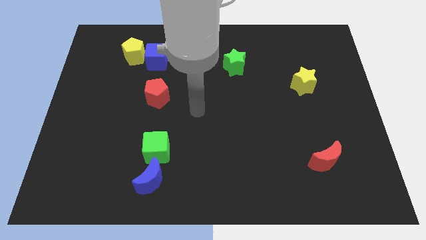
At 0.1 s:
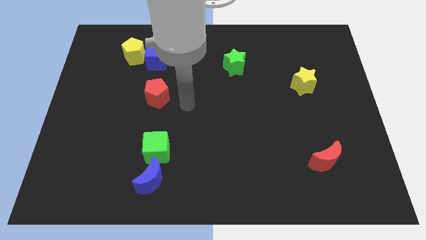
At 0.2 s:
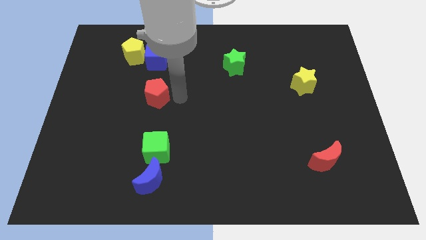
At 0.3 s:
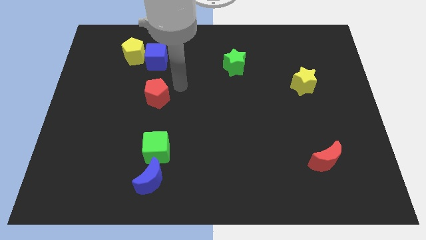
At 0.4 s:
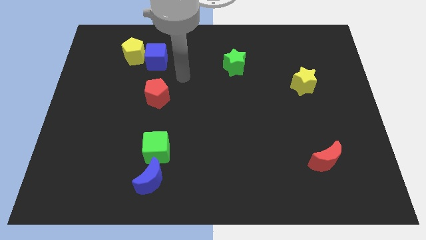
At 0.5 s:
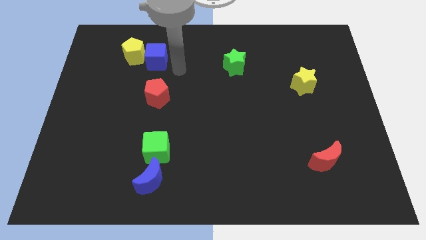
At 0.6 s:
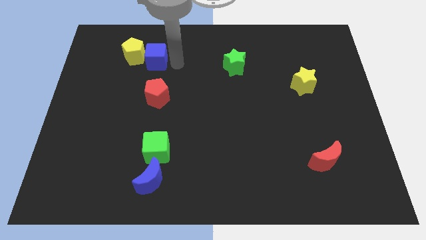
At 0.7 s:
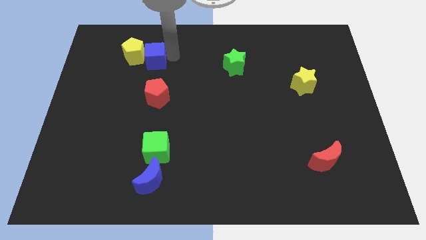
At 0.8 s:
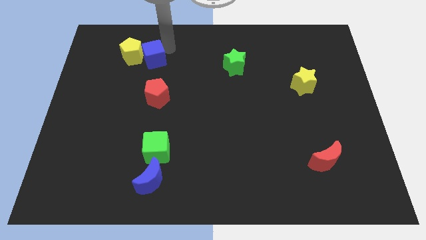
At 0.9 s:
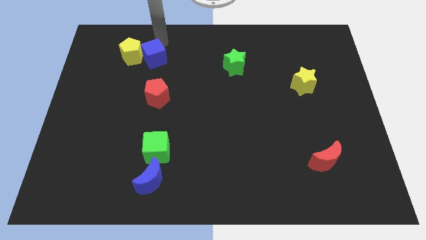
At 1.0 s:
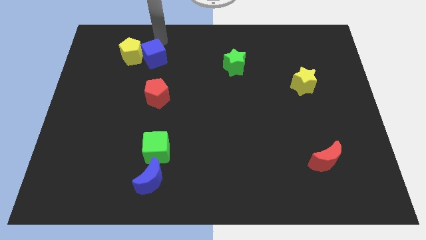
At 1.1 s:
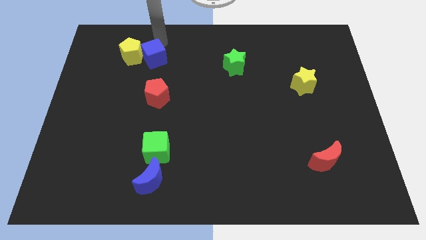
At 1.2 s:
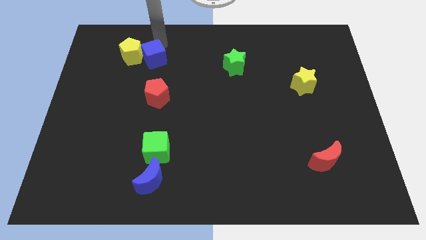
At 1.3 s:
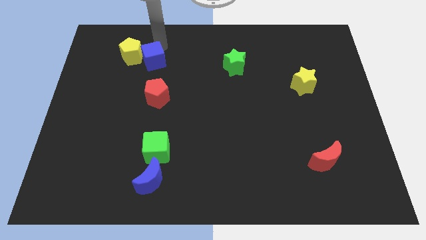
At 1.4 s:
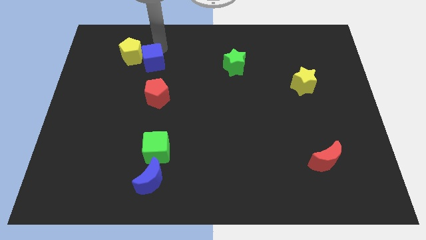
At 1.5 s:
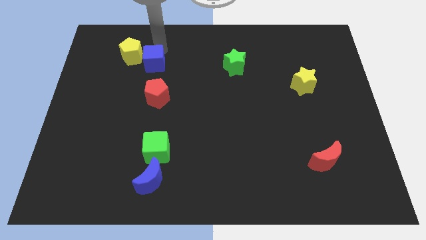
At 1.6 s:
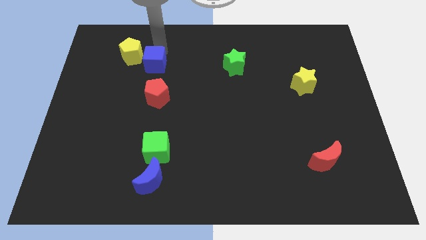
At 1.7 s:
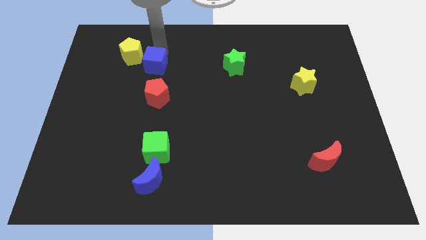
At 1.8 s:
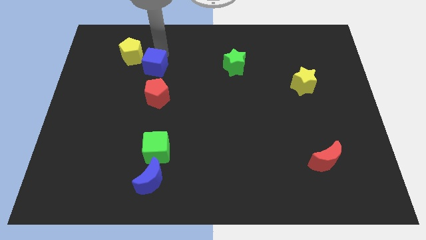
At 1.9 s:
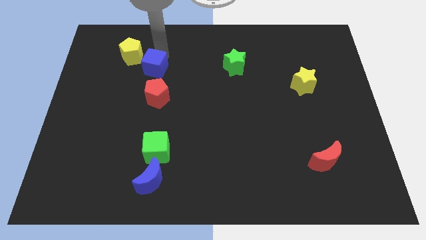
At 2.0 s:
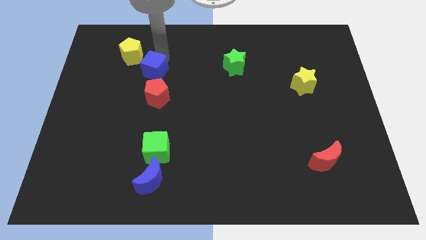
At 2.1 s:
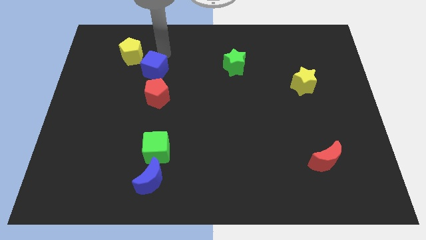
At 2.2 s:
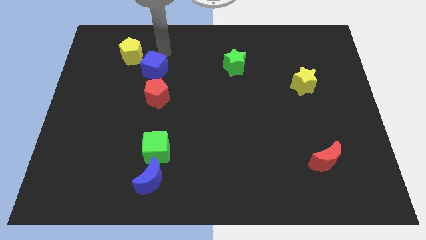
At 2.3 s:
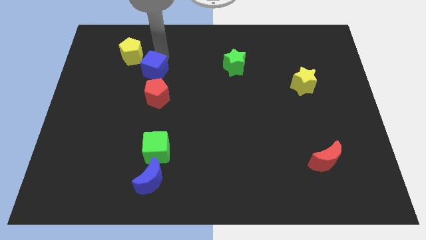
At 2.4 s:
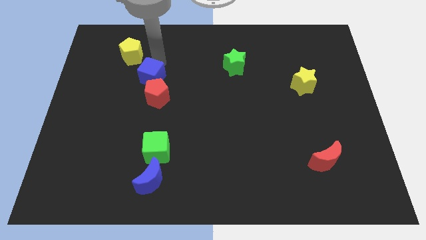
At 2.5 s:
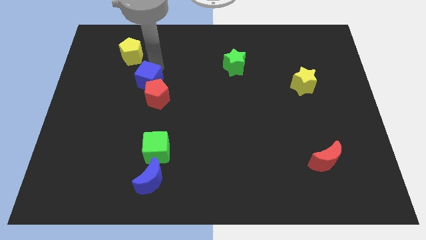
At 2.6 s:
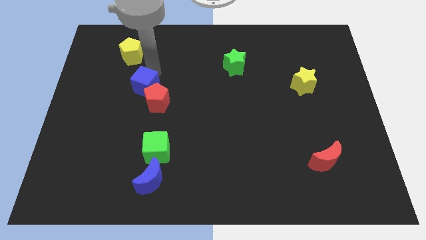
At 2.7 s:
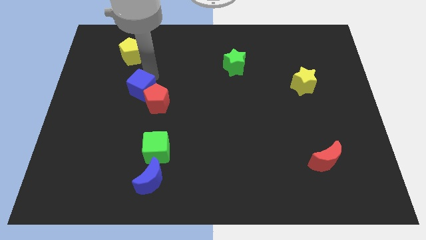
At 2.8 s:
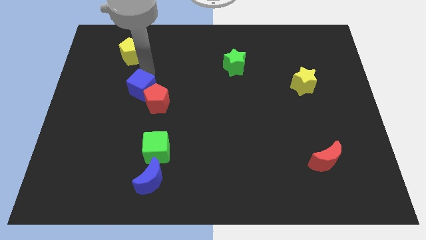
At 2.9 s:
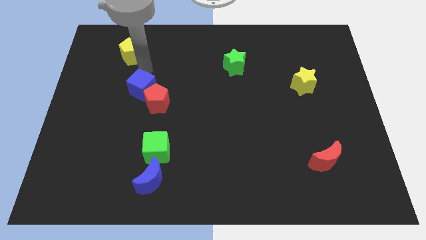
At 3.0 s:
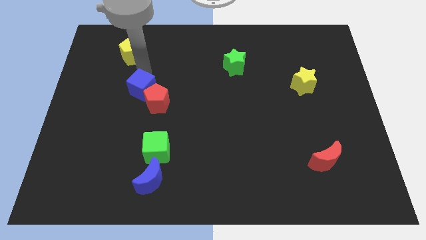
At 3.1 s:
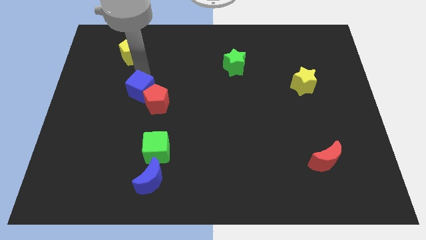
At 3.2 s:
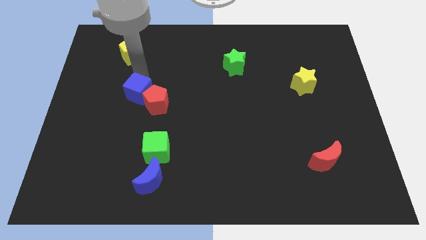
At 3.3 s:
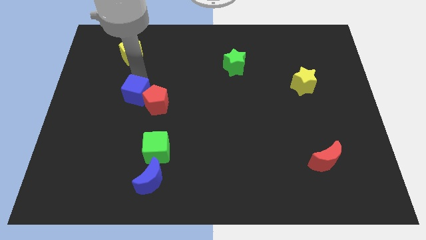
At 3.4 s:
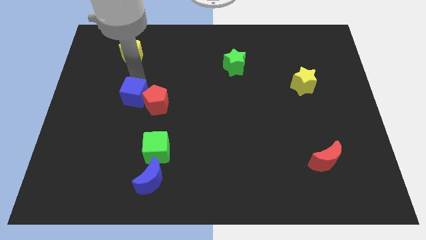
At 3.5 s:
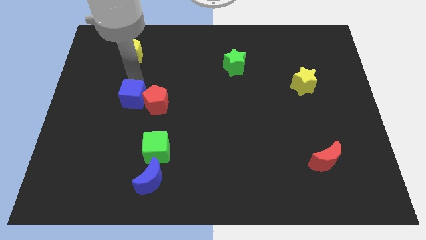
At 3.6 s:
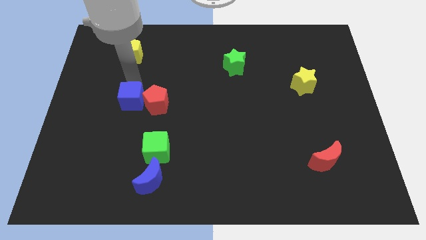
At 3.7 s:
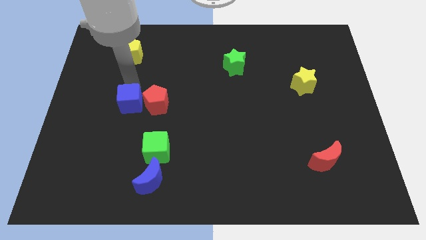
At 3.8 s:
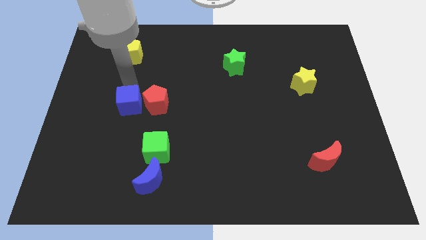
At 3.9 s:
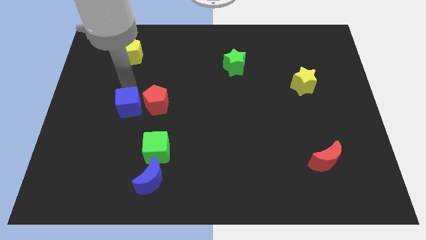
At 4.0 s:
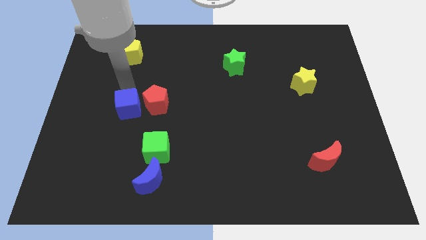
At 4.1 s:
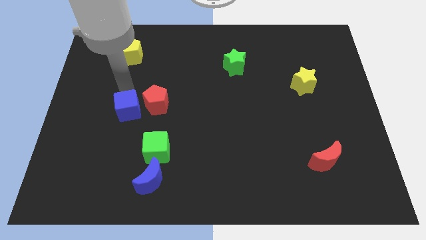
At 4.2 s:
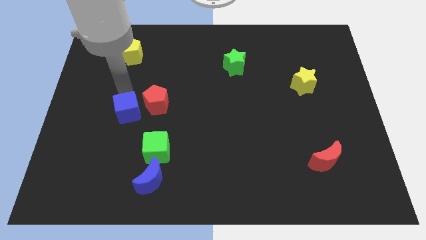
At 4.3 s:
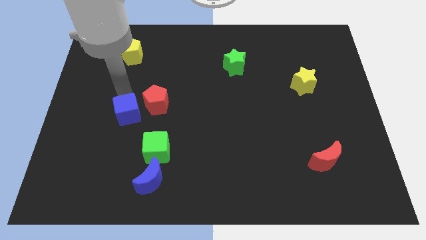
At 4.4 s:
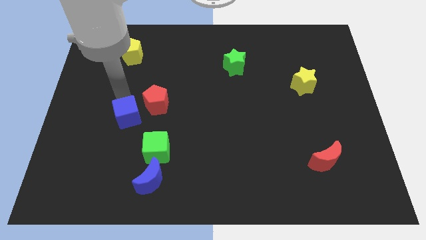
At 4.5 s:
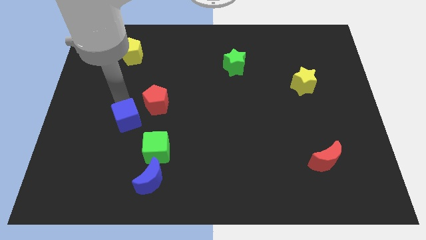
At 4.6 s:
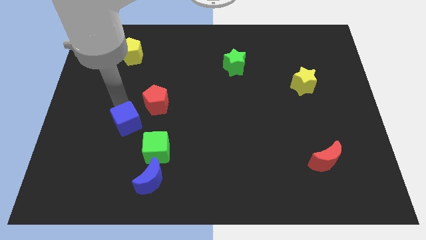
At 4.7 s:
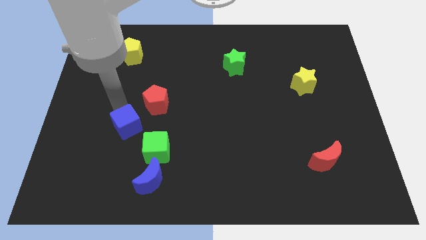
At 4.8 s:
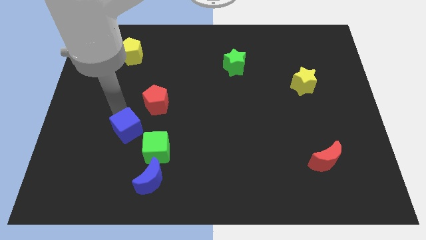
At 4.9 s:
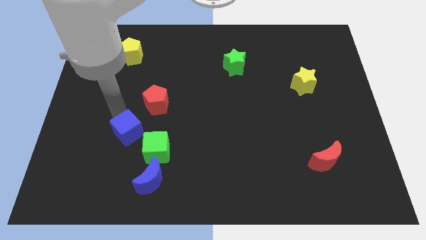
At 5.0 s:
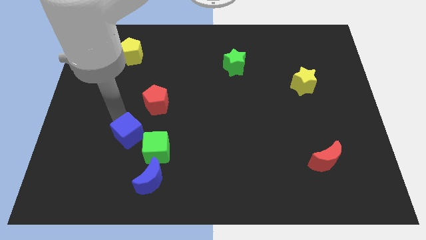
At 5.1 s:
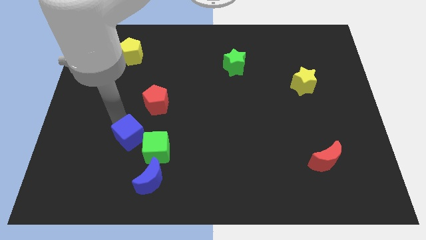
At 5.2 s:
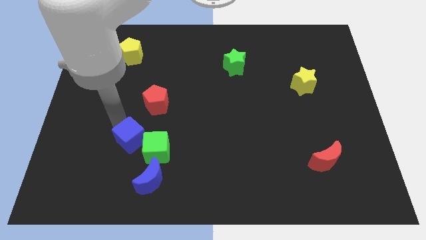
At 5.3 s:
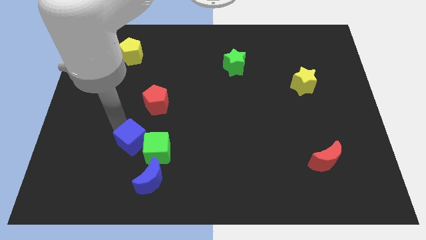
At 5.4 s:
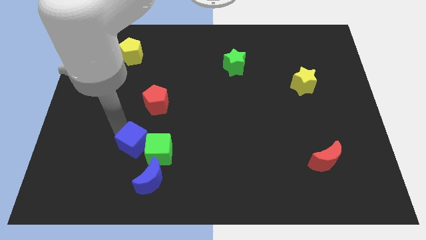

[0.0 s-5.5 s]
move the blue cube to the top side of the blue moon

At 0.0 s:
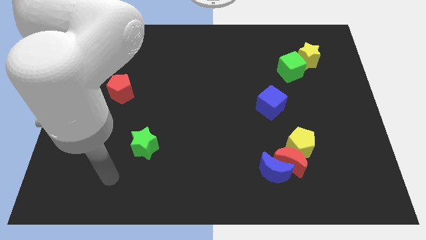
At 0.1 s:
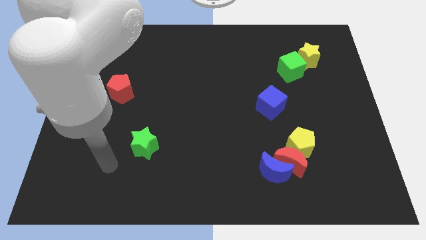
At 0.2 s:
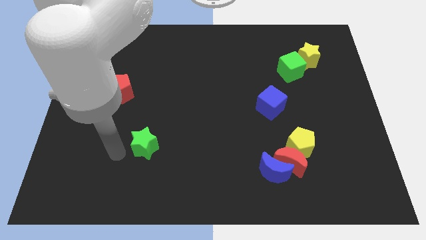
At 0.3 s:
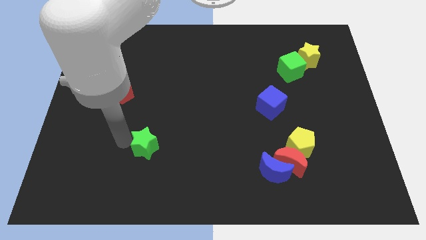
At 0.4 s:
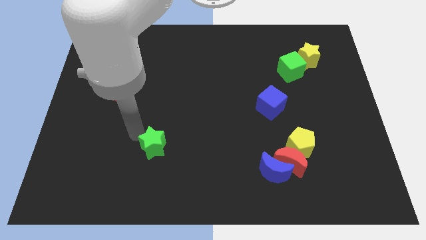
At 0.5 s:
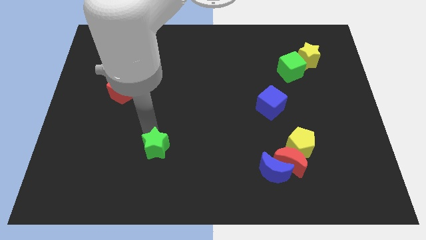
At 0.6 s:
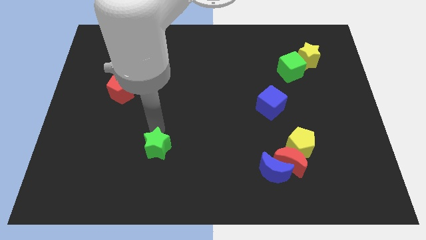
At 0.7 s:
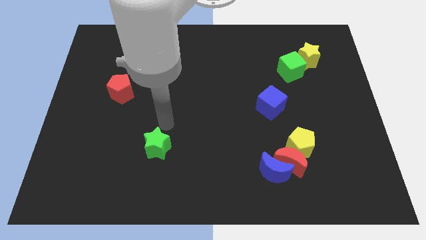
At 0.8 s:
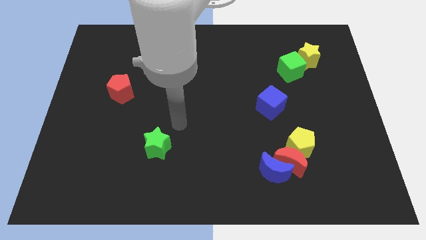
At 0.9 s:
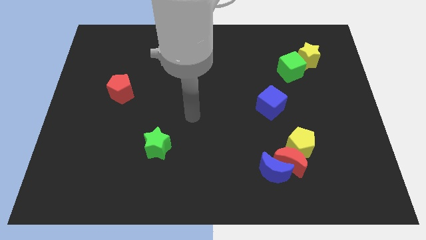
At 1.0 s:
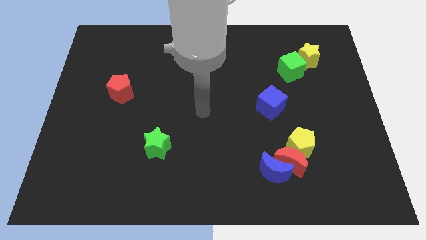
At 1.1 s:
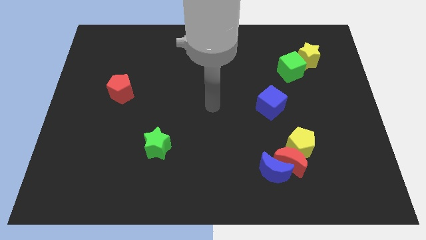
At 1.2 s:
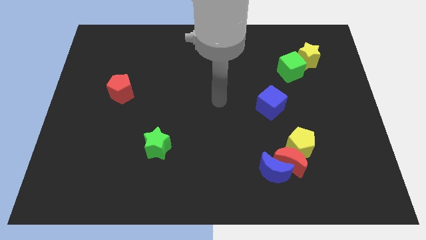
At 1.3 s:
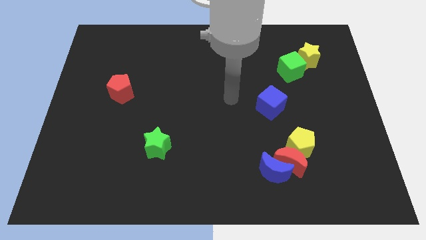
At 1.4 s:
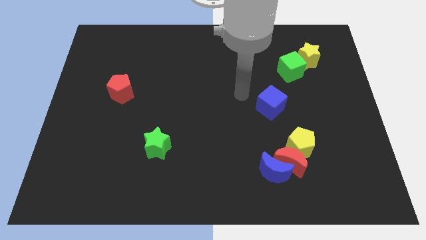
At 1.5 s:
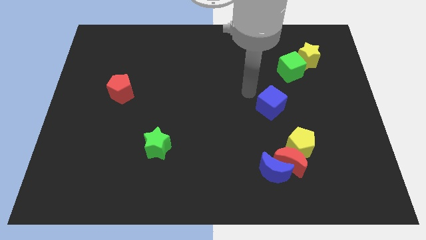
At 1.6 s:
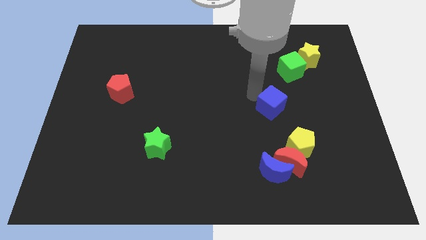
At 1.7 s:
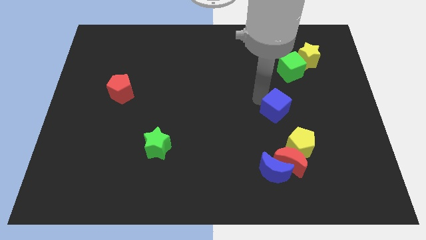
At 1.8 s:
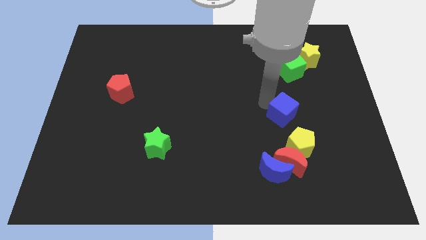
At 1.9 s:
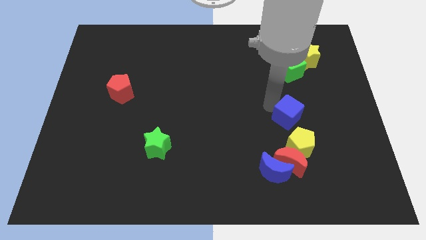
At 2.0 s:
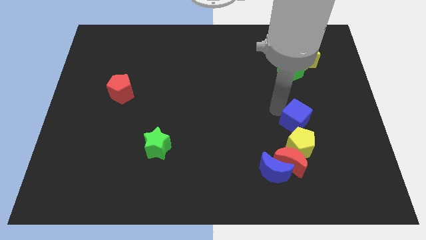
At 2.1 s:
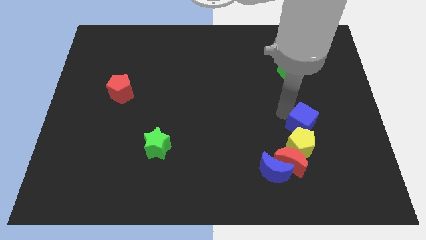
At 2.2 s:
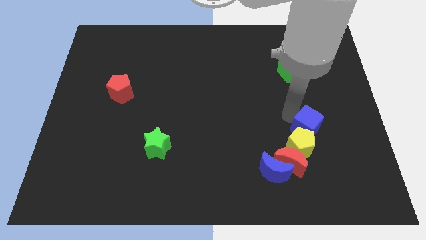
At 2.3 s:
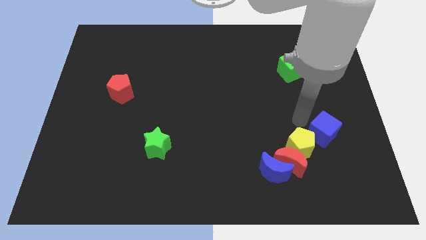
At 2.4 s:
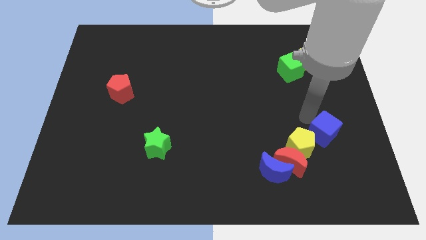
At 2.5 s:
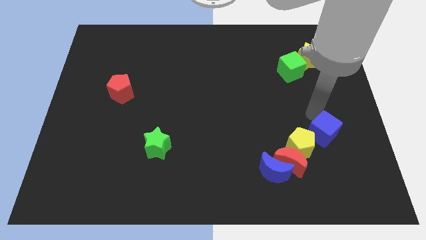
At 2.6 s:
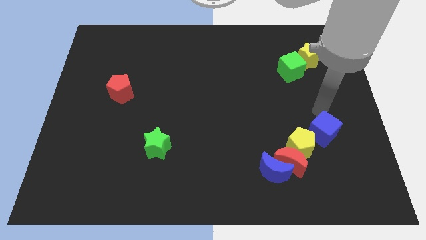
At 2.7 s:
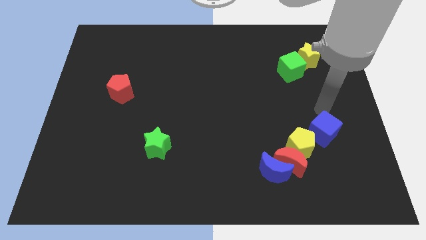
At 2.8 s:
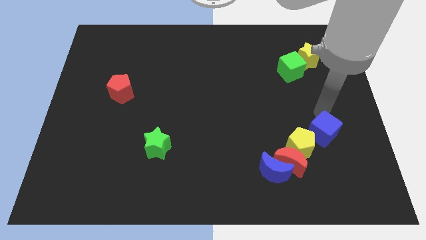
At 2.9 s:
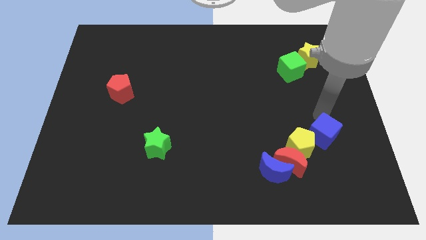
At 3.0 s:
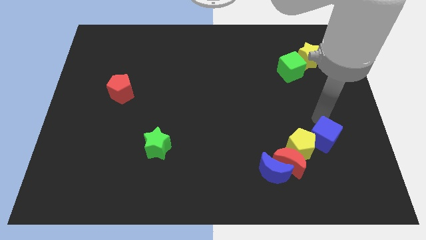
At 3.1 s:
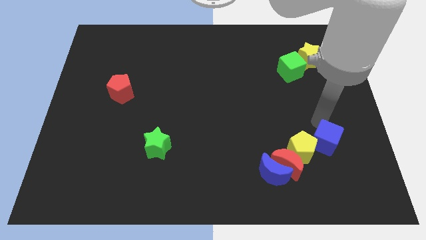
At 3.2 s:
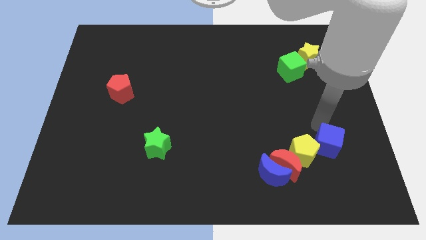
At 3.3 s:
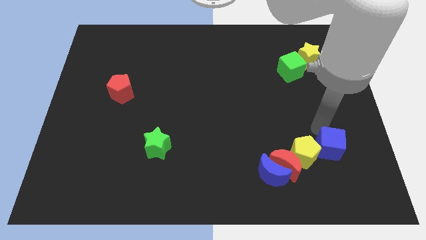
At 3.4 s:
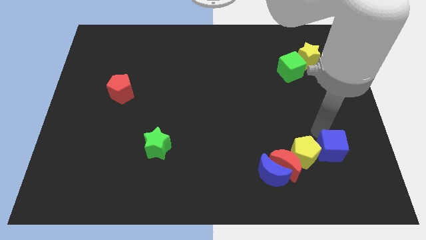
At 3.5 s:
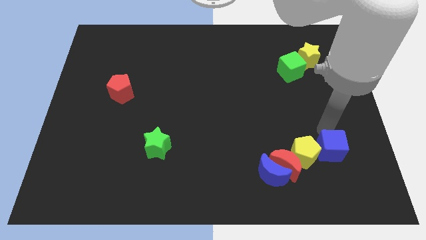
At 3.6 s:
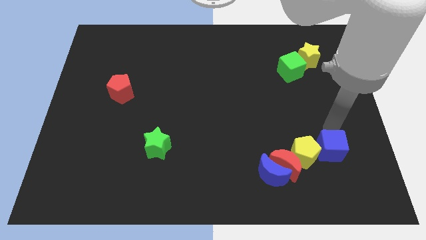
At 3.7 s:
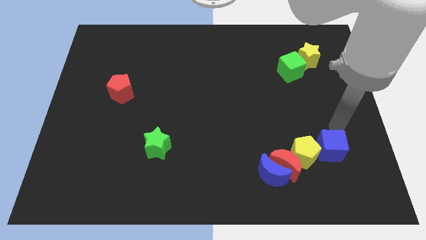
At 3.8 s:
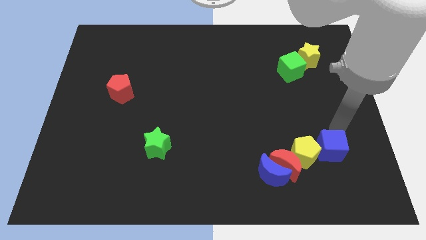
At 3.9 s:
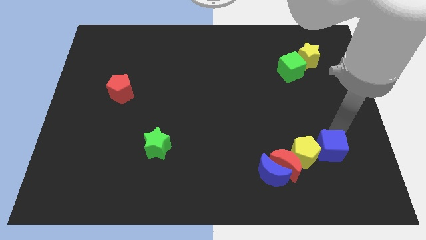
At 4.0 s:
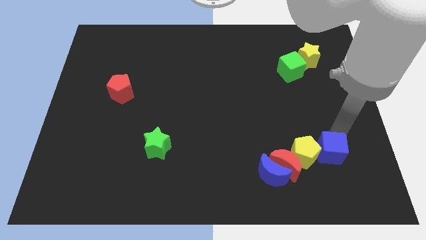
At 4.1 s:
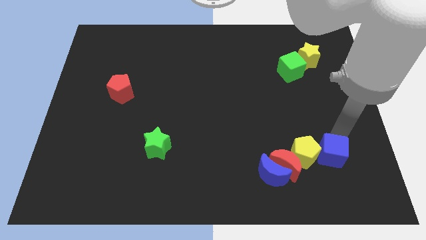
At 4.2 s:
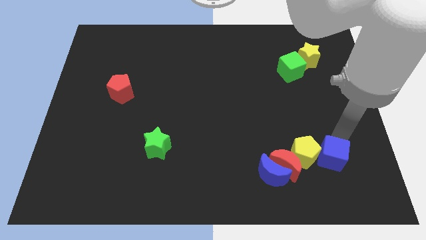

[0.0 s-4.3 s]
move the blue cube to the right side of the blue moon
